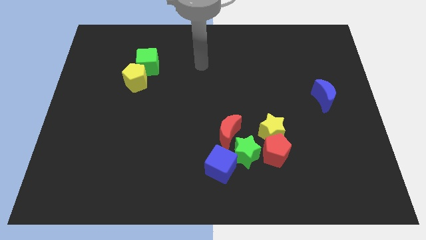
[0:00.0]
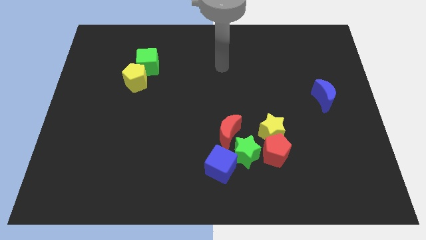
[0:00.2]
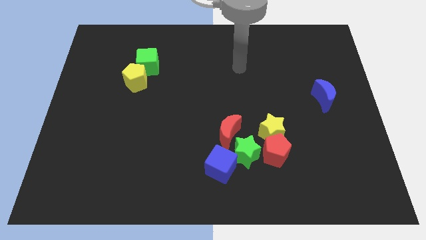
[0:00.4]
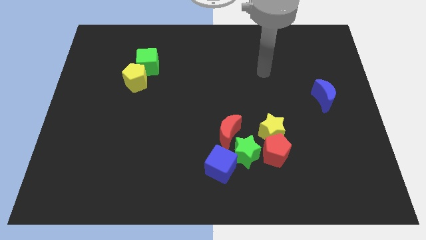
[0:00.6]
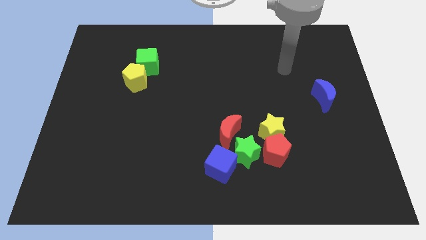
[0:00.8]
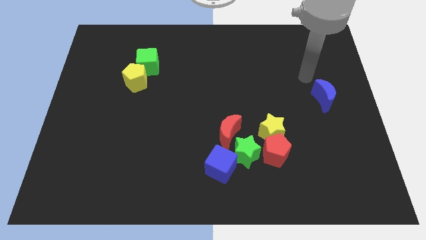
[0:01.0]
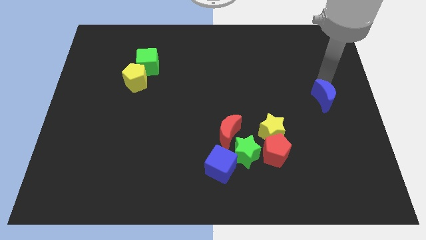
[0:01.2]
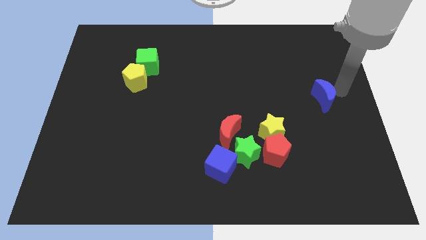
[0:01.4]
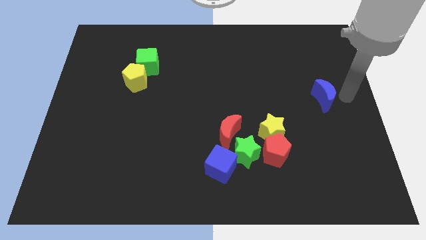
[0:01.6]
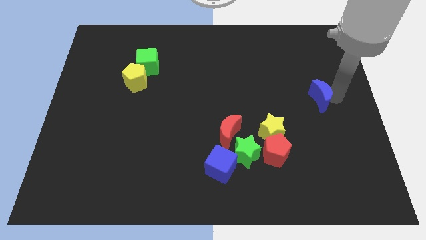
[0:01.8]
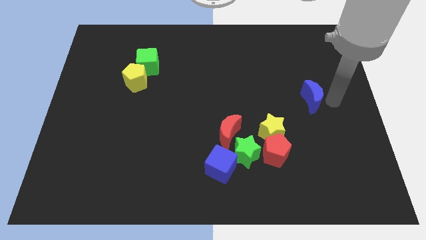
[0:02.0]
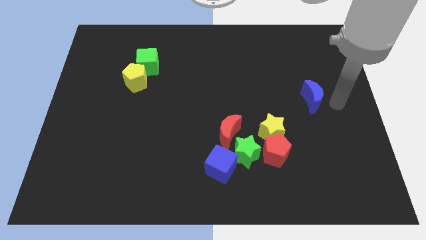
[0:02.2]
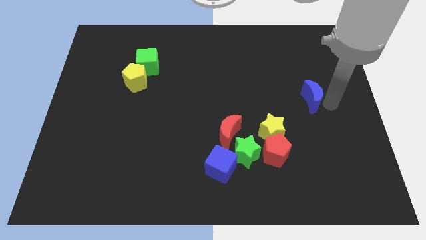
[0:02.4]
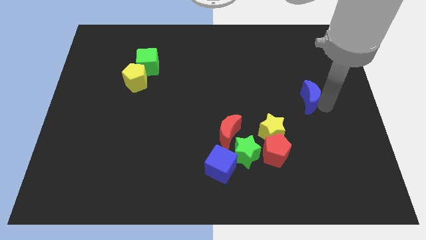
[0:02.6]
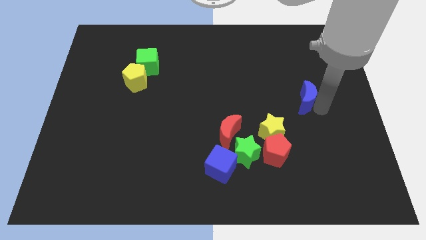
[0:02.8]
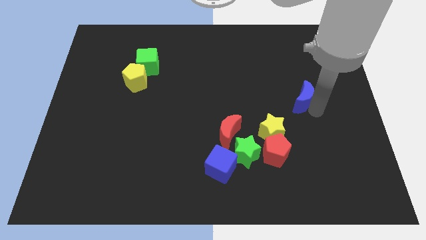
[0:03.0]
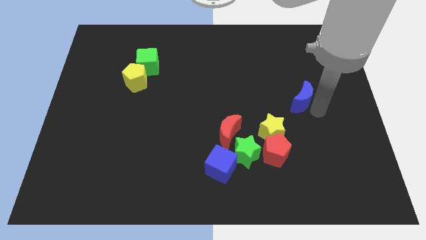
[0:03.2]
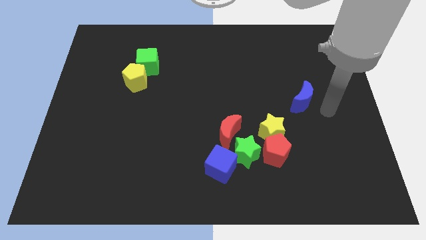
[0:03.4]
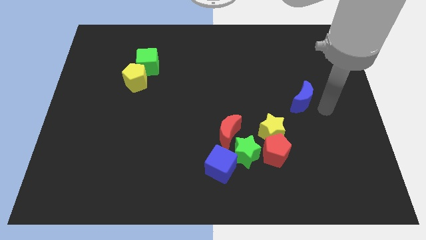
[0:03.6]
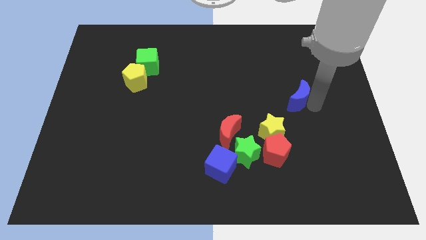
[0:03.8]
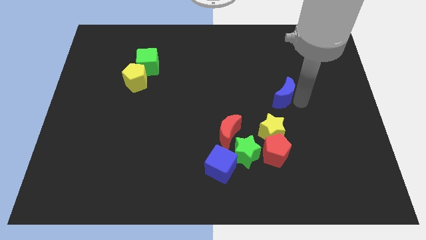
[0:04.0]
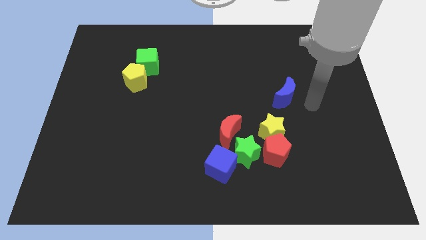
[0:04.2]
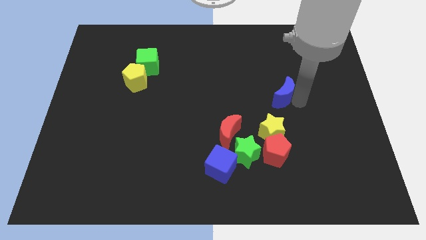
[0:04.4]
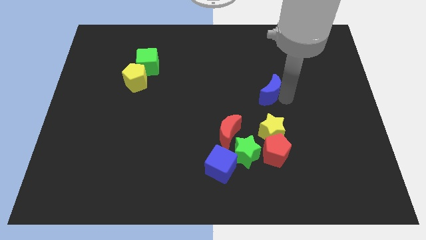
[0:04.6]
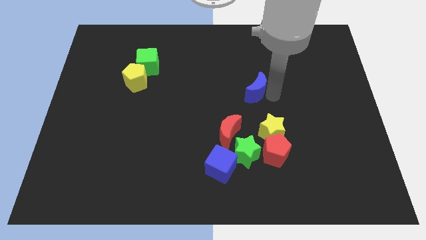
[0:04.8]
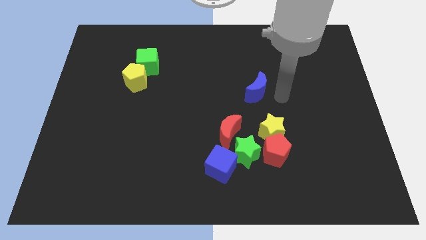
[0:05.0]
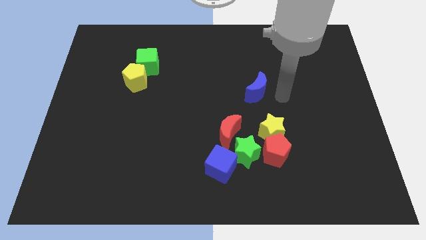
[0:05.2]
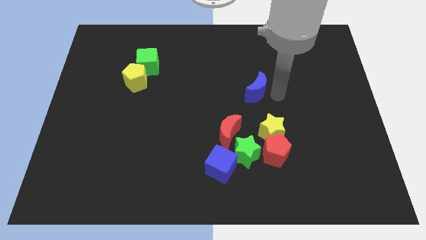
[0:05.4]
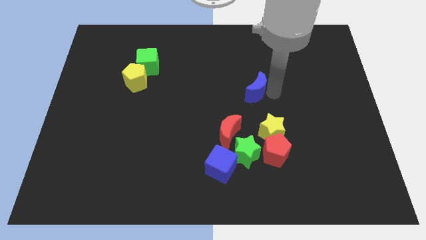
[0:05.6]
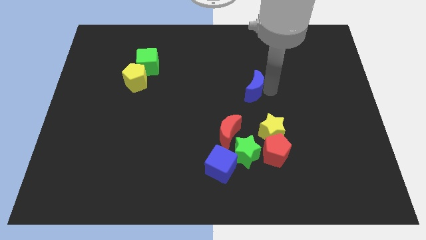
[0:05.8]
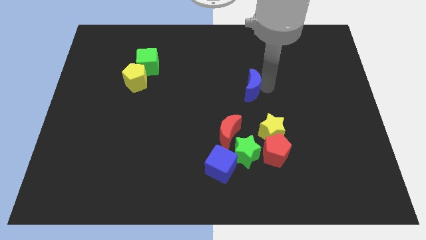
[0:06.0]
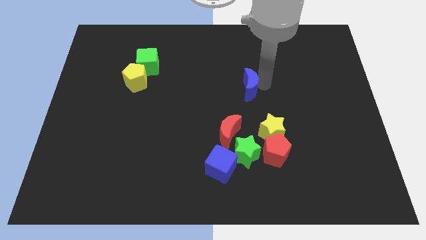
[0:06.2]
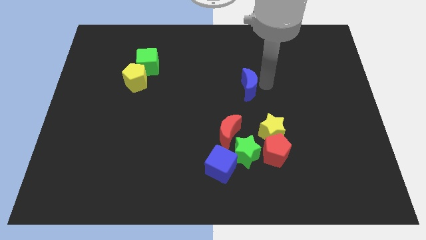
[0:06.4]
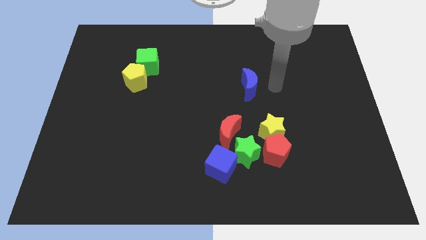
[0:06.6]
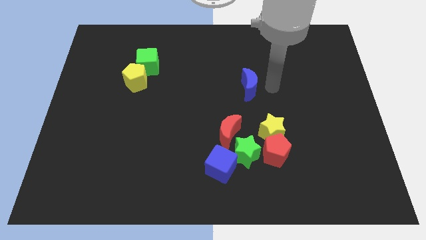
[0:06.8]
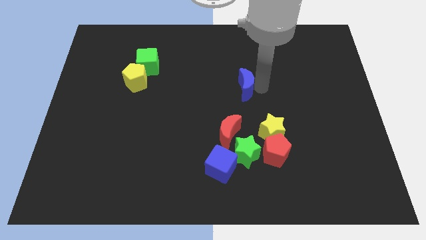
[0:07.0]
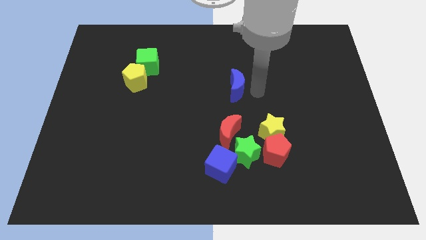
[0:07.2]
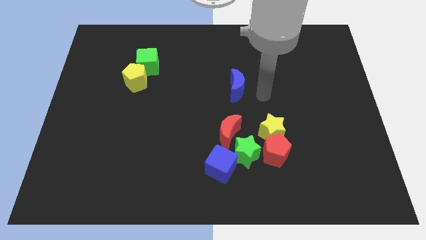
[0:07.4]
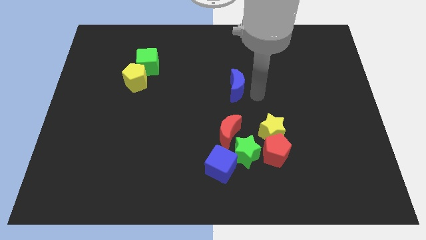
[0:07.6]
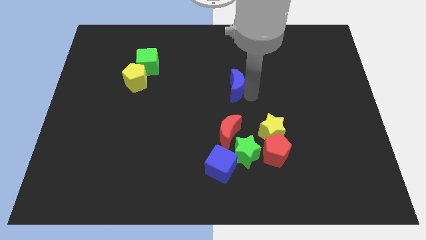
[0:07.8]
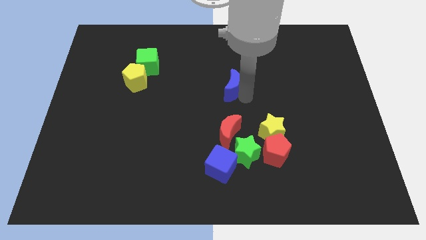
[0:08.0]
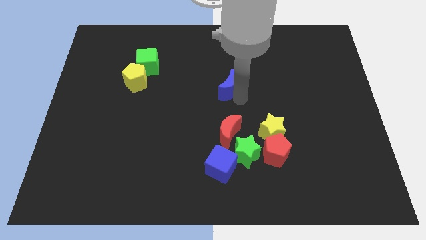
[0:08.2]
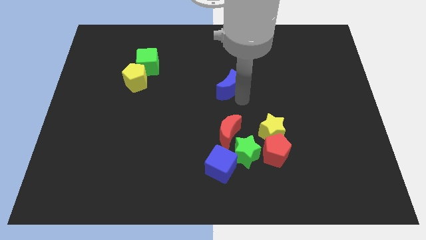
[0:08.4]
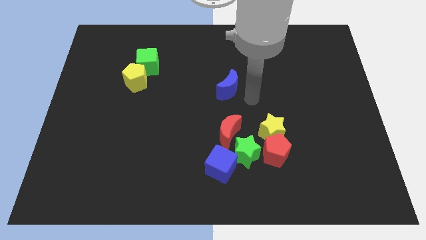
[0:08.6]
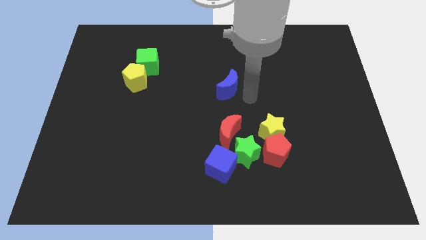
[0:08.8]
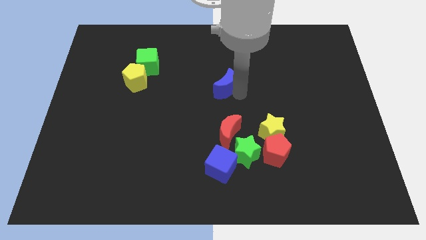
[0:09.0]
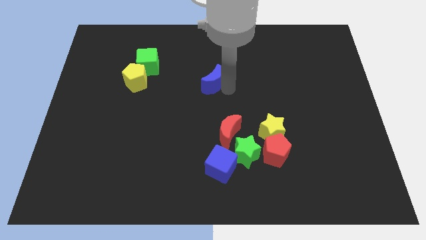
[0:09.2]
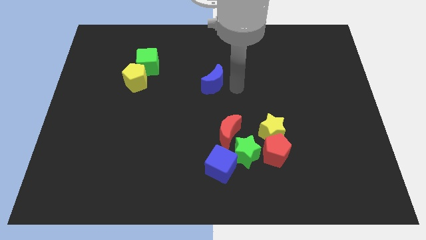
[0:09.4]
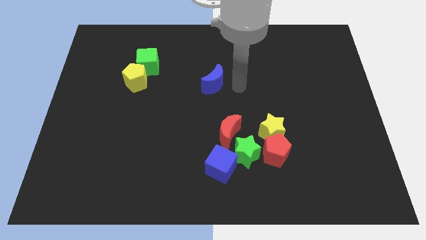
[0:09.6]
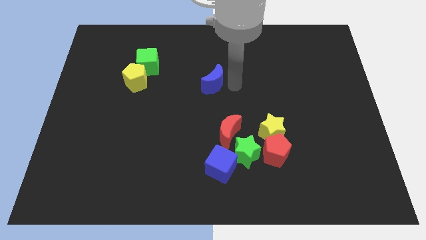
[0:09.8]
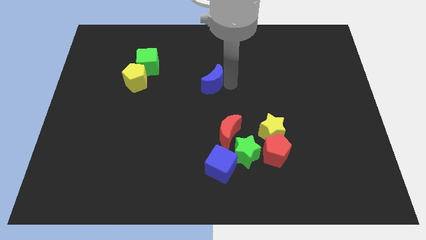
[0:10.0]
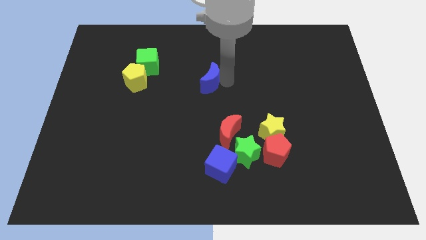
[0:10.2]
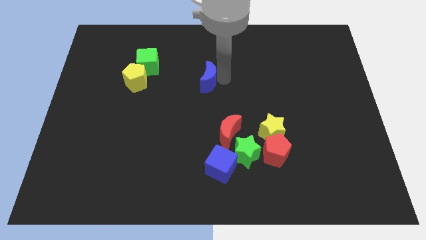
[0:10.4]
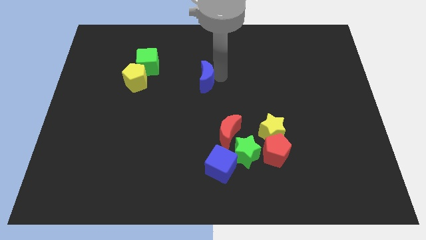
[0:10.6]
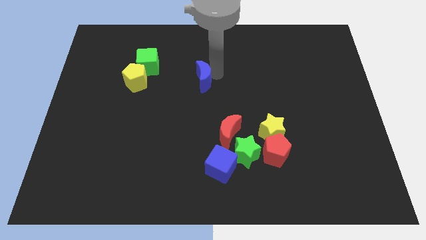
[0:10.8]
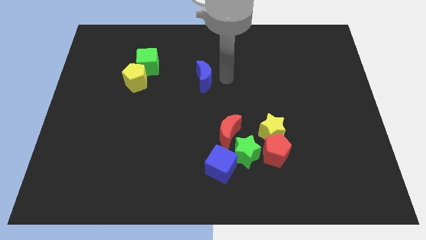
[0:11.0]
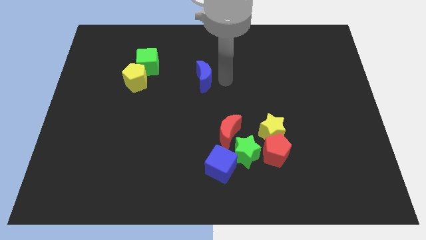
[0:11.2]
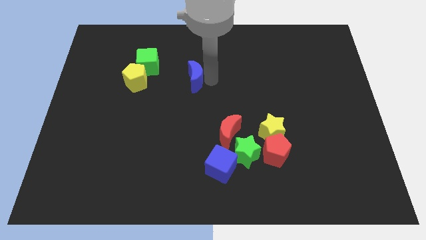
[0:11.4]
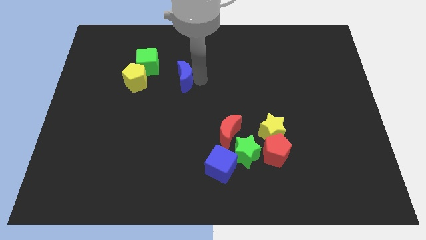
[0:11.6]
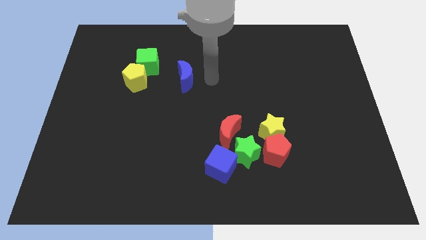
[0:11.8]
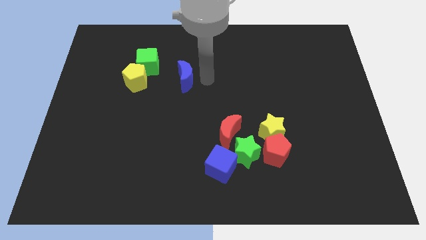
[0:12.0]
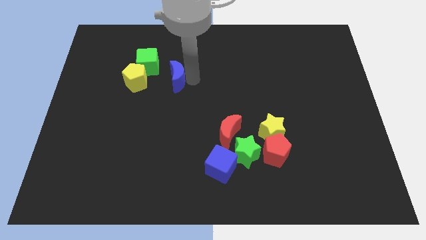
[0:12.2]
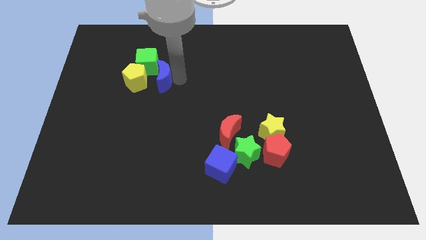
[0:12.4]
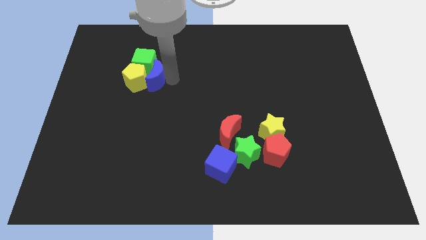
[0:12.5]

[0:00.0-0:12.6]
push the blue moon close to the yellow pentagon

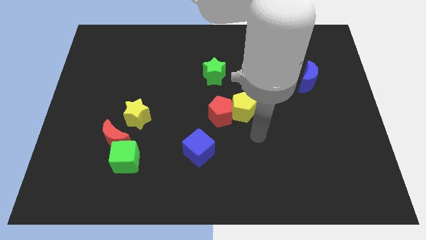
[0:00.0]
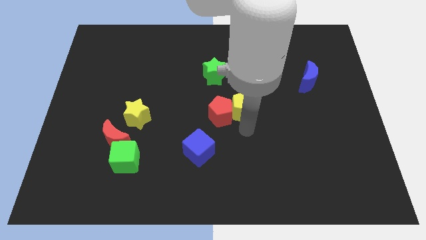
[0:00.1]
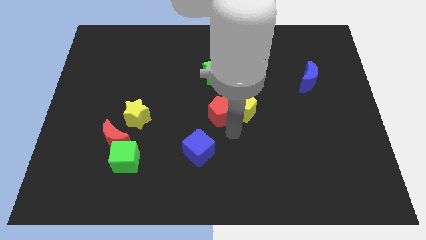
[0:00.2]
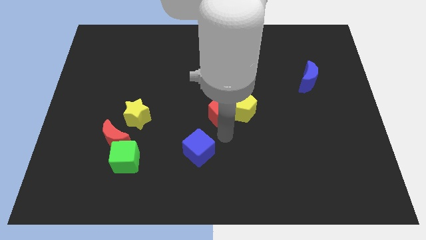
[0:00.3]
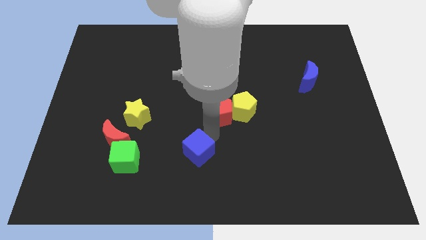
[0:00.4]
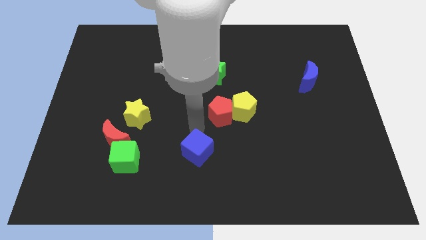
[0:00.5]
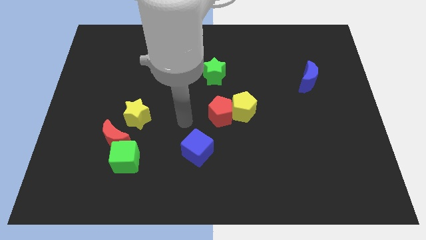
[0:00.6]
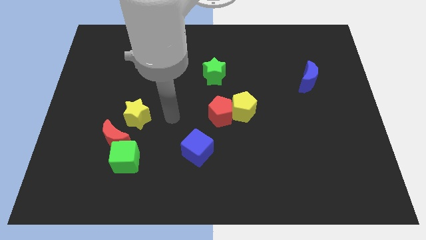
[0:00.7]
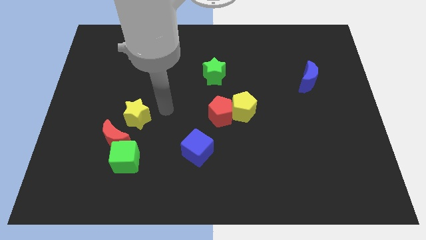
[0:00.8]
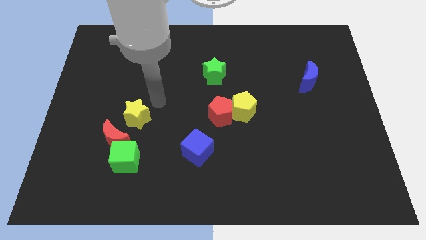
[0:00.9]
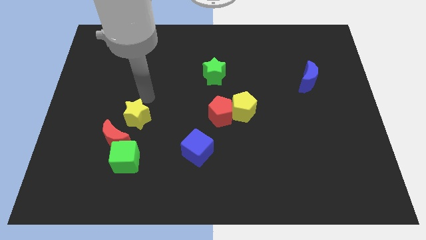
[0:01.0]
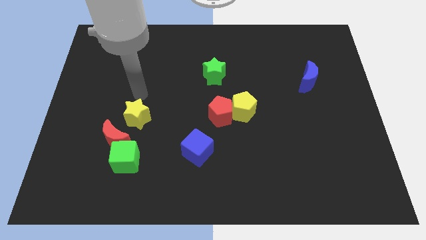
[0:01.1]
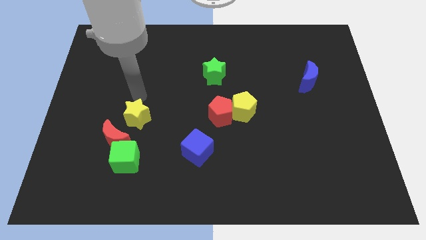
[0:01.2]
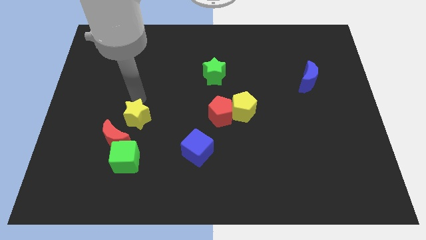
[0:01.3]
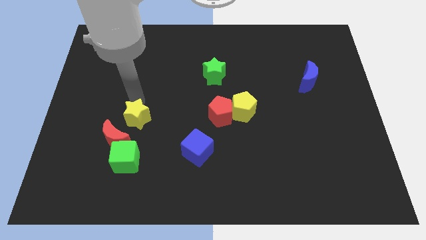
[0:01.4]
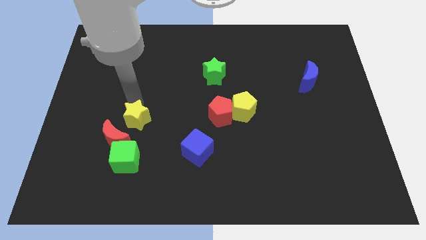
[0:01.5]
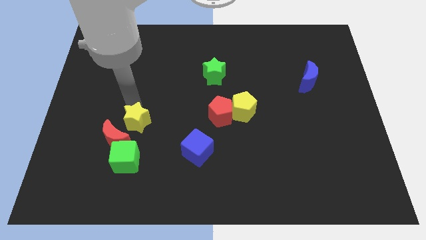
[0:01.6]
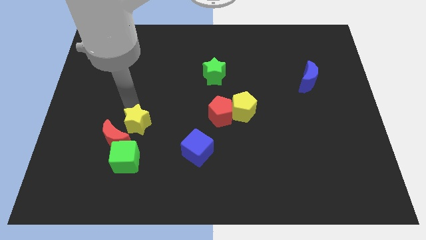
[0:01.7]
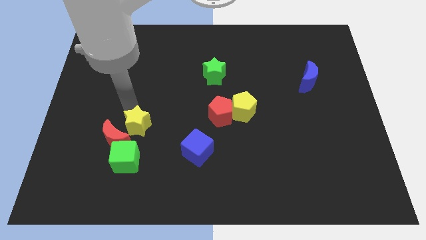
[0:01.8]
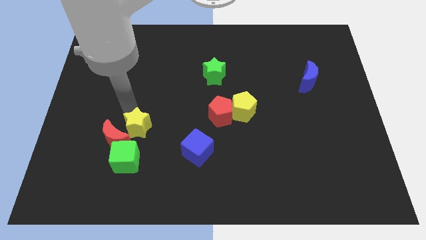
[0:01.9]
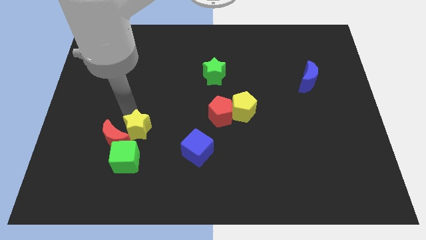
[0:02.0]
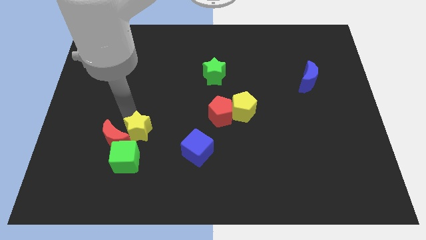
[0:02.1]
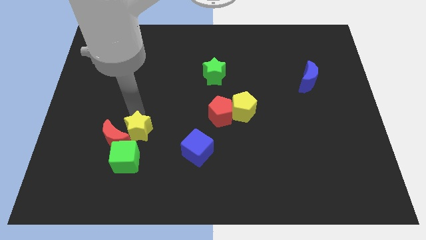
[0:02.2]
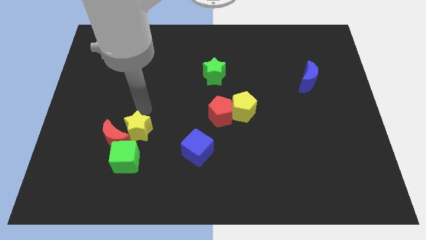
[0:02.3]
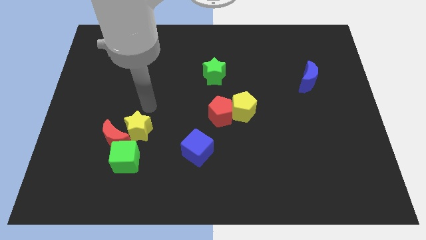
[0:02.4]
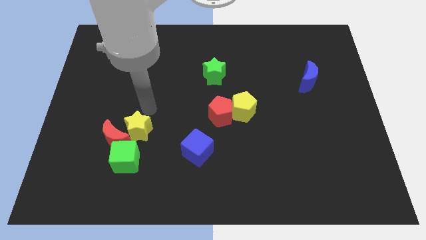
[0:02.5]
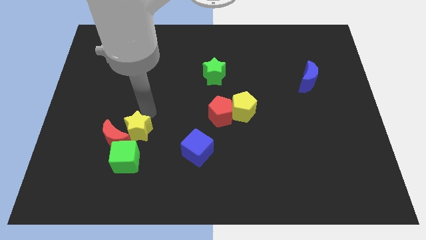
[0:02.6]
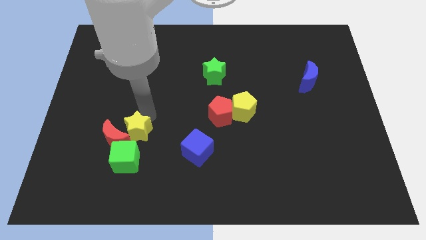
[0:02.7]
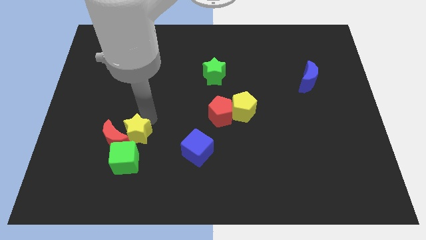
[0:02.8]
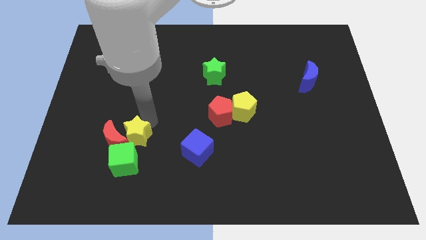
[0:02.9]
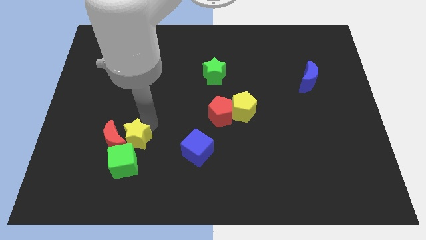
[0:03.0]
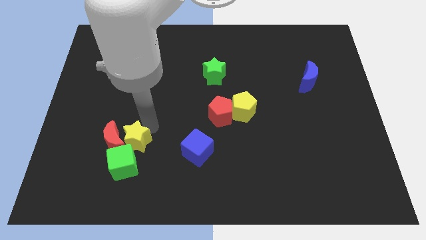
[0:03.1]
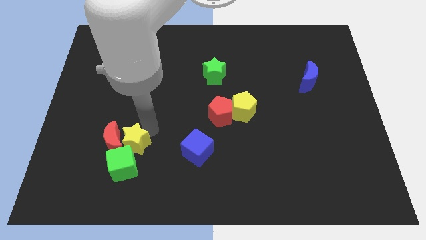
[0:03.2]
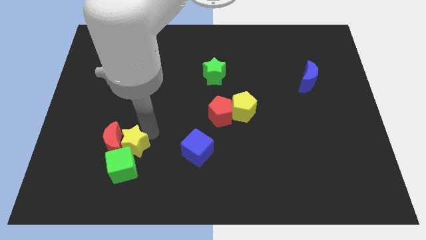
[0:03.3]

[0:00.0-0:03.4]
push the yellow star next to the green cube
